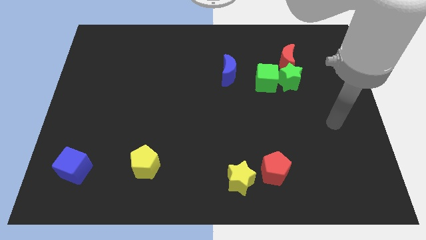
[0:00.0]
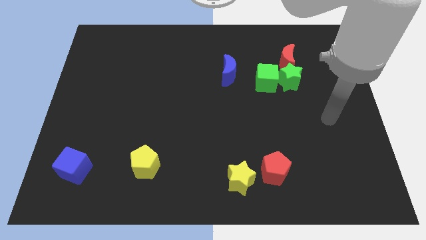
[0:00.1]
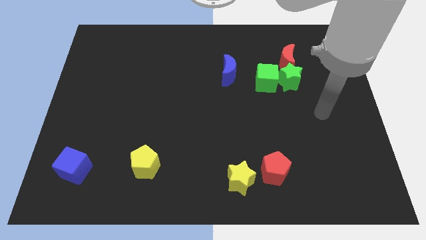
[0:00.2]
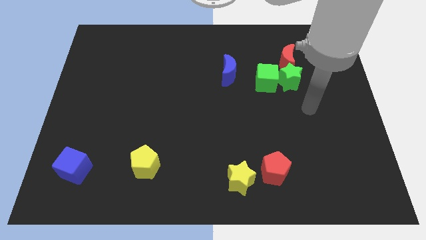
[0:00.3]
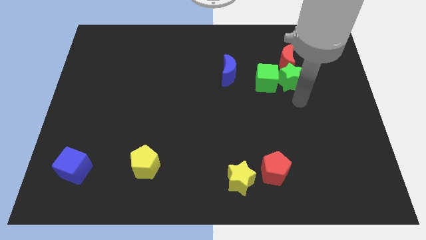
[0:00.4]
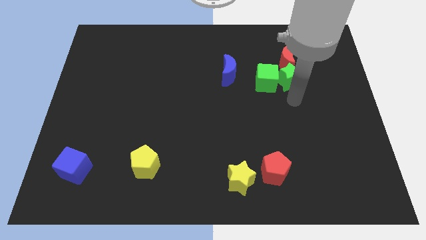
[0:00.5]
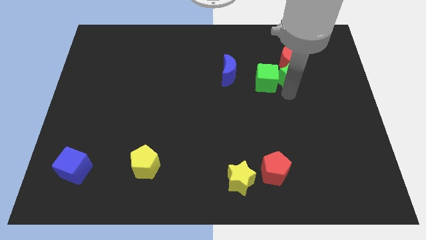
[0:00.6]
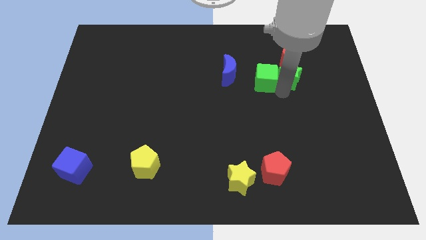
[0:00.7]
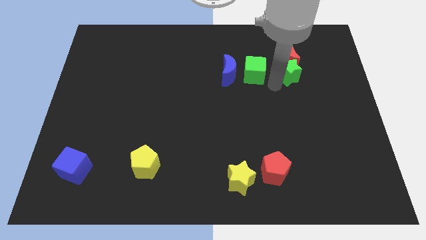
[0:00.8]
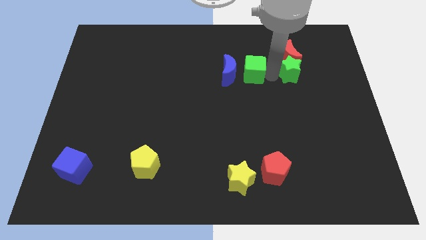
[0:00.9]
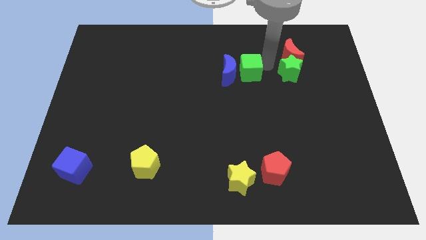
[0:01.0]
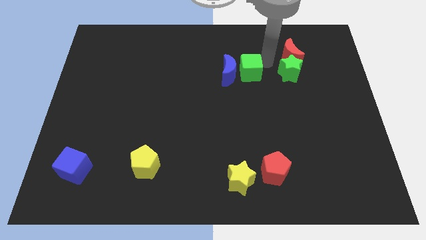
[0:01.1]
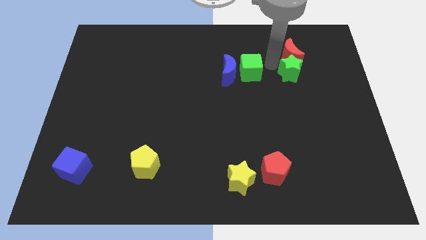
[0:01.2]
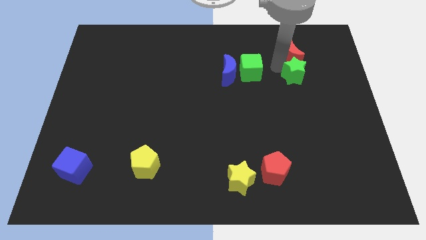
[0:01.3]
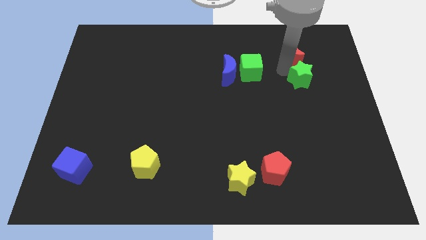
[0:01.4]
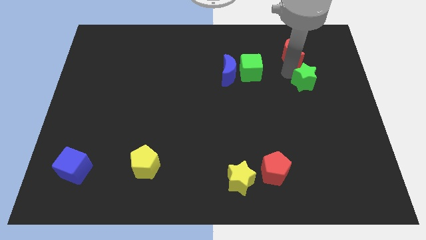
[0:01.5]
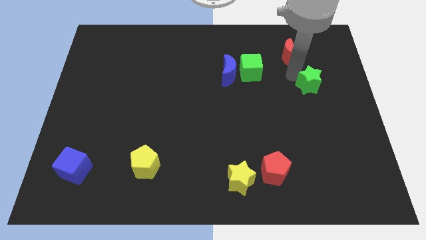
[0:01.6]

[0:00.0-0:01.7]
pull the green star apart from the green cube and red moon

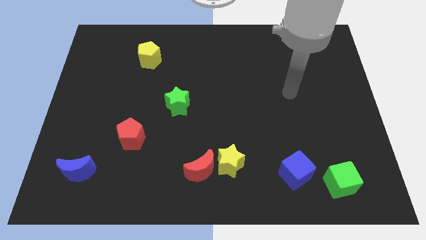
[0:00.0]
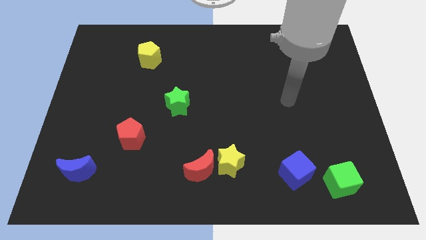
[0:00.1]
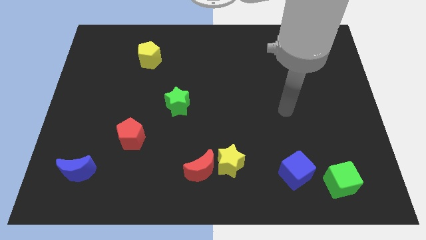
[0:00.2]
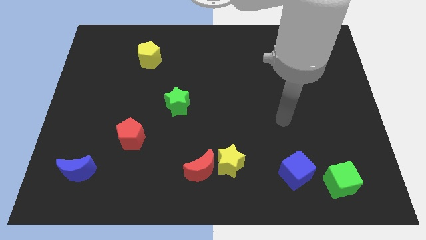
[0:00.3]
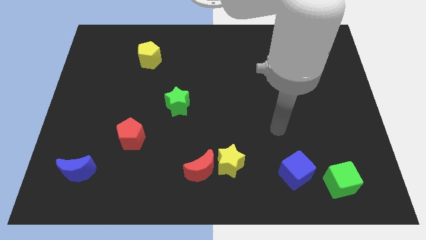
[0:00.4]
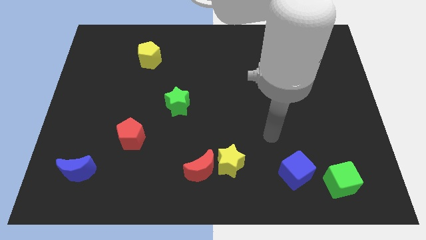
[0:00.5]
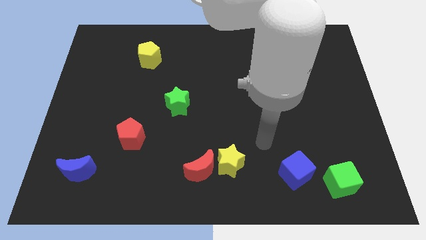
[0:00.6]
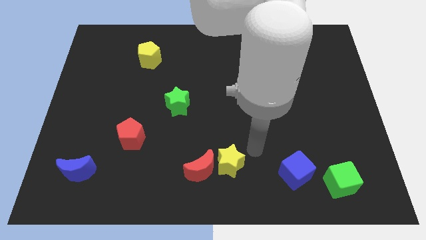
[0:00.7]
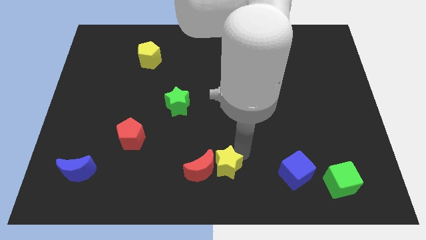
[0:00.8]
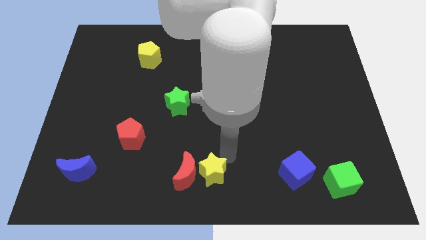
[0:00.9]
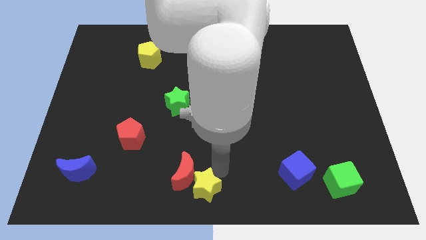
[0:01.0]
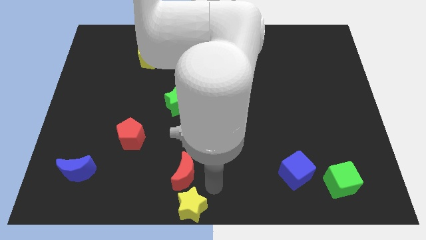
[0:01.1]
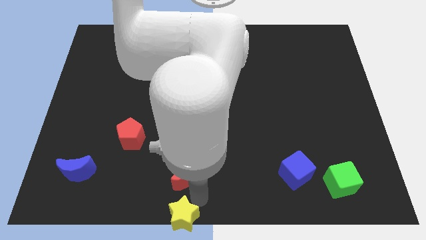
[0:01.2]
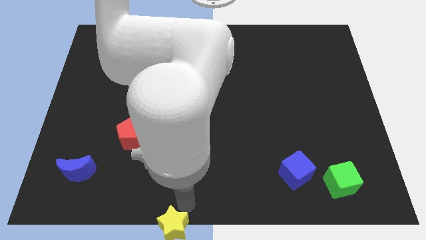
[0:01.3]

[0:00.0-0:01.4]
pull the red moon apart from the yellow star

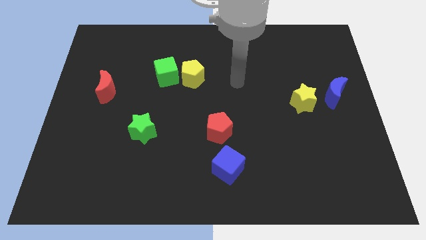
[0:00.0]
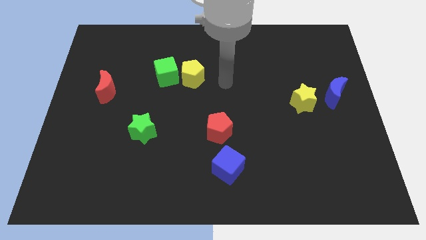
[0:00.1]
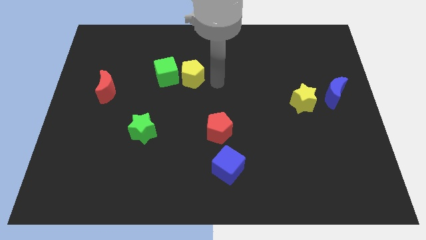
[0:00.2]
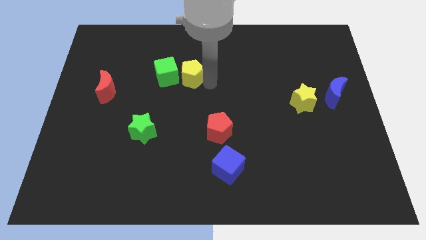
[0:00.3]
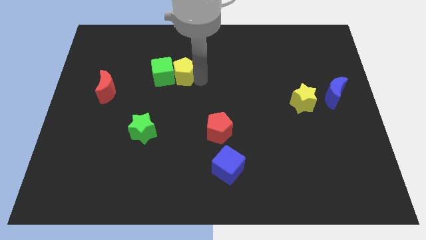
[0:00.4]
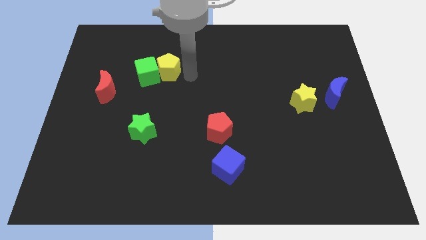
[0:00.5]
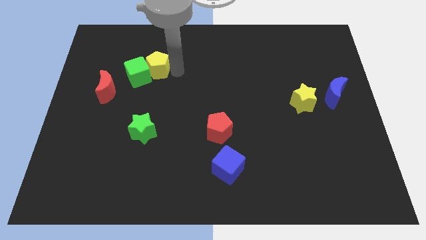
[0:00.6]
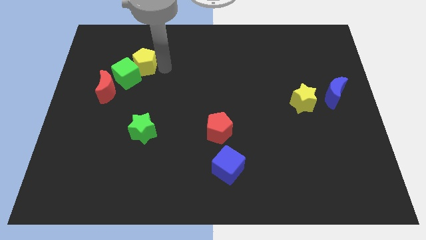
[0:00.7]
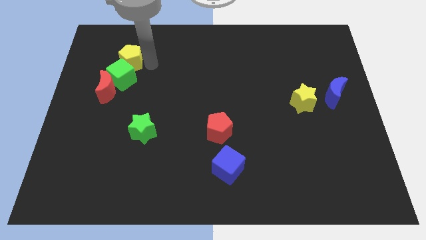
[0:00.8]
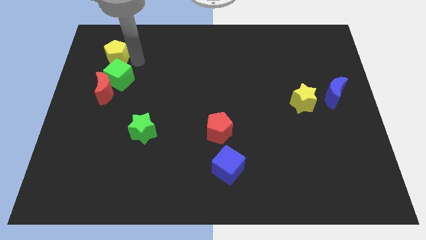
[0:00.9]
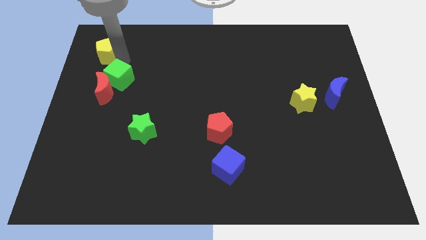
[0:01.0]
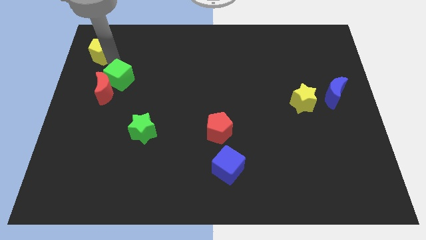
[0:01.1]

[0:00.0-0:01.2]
move the green cube away from the yellow pentagon

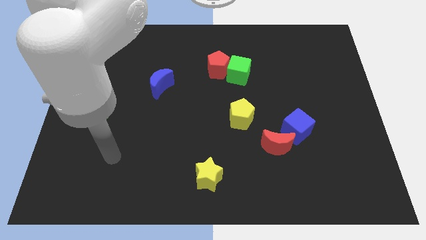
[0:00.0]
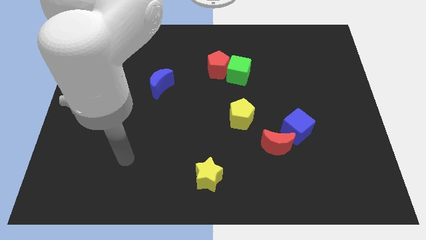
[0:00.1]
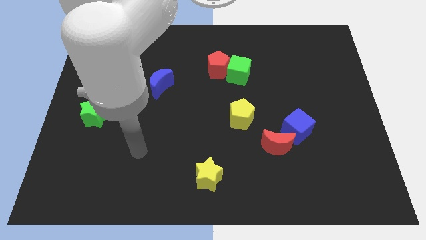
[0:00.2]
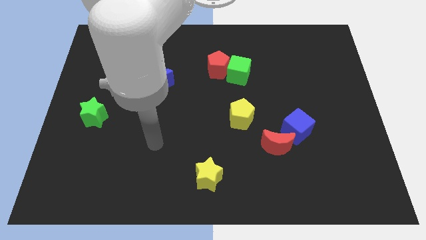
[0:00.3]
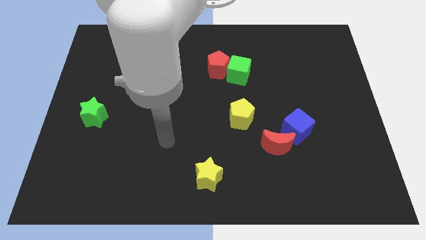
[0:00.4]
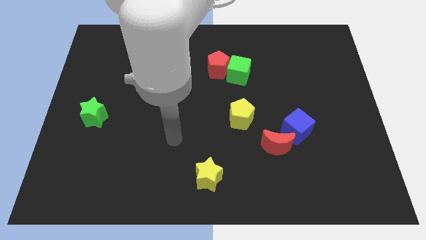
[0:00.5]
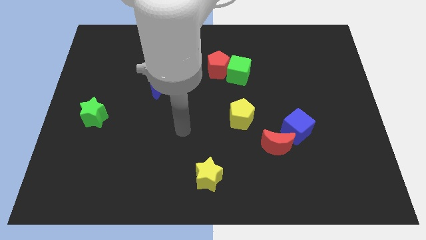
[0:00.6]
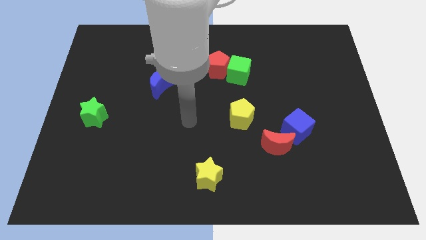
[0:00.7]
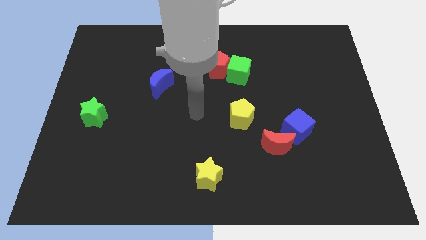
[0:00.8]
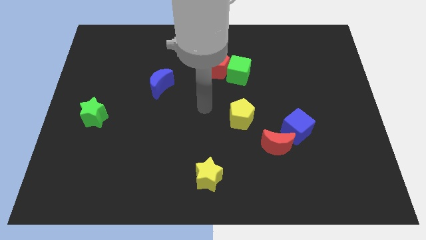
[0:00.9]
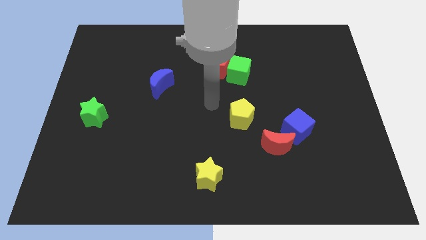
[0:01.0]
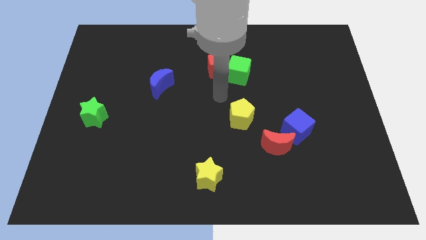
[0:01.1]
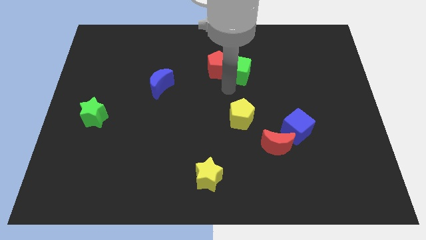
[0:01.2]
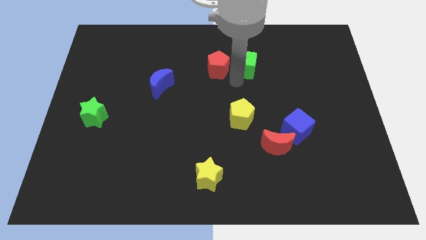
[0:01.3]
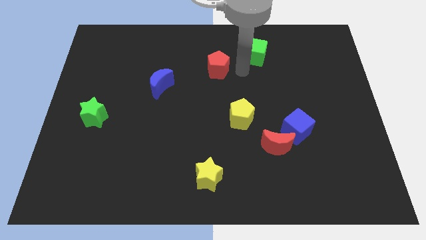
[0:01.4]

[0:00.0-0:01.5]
move the red pentagon away from the green cube

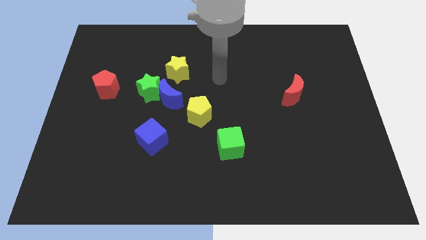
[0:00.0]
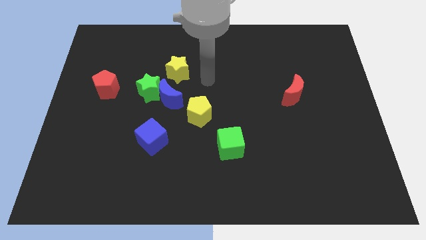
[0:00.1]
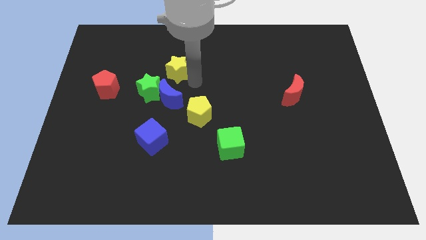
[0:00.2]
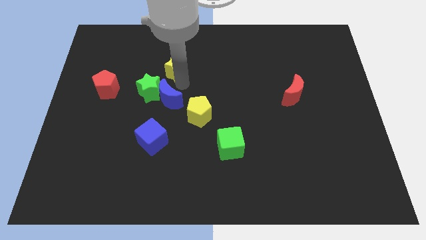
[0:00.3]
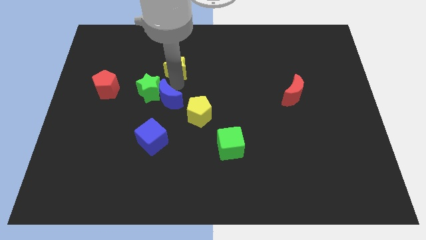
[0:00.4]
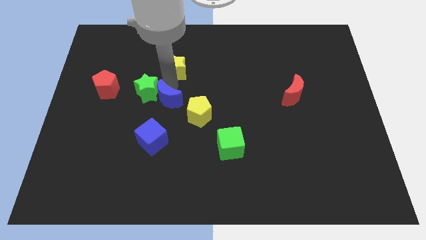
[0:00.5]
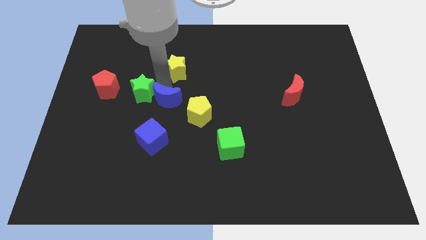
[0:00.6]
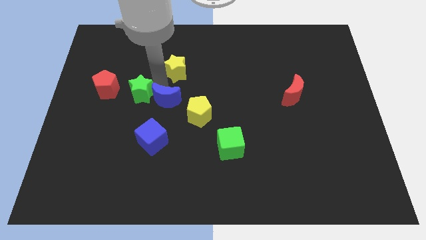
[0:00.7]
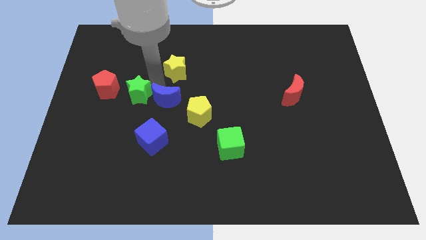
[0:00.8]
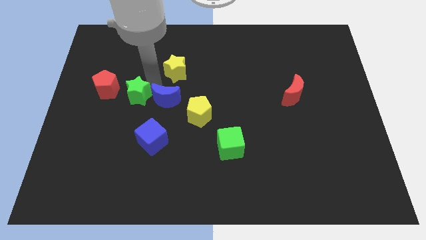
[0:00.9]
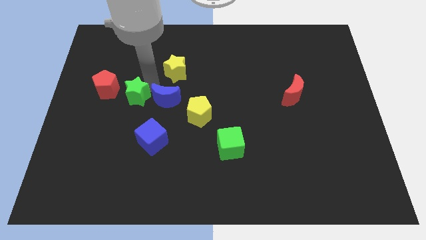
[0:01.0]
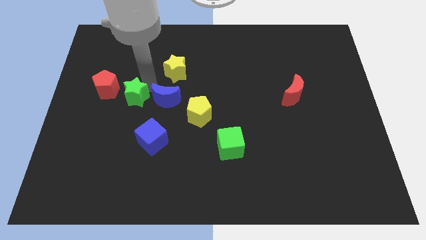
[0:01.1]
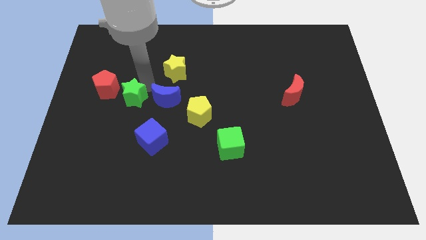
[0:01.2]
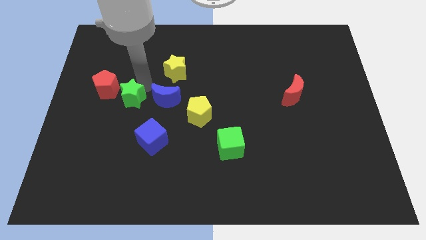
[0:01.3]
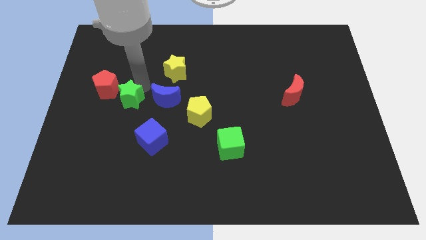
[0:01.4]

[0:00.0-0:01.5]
pull the green star apart from the blue moon and yellow star

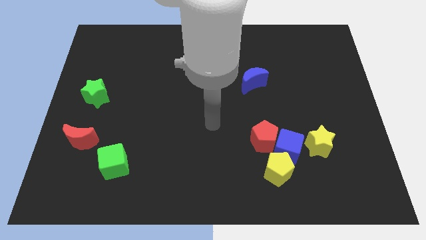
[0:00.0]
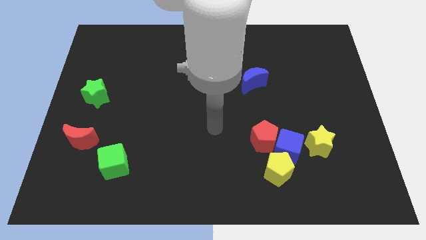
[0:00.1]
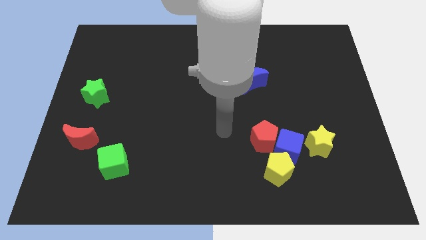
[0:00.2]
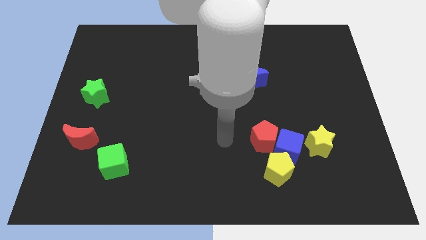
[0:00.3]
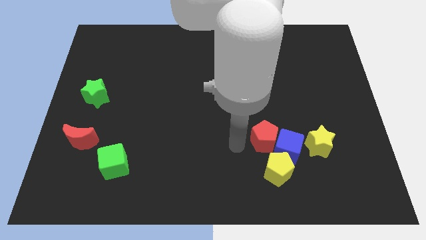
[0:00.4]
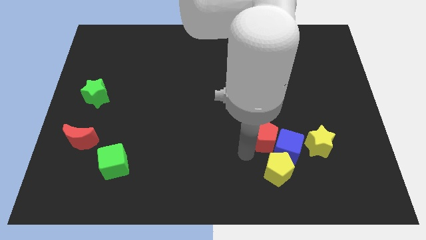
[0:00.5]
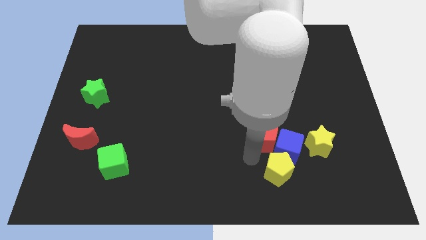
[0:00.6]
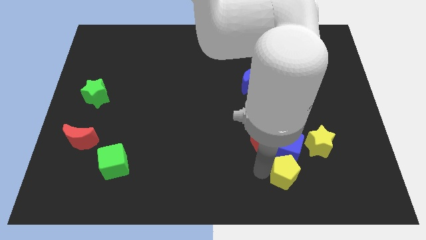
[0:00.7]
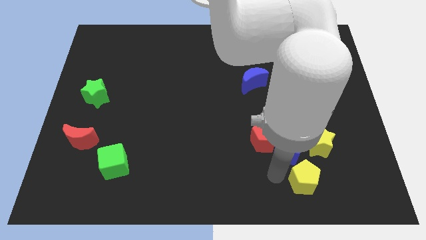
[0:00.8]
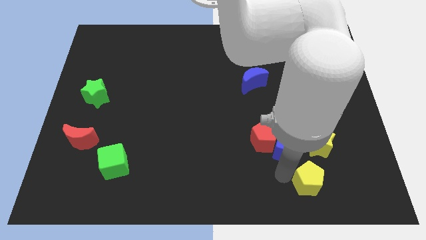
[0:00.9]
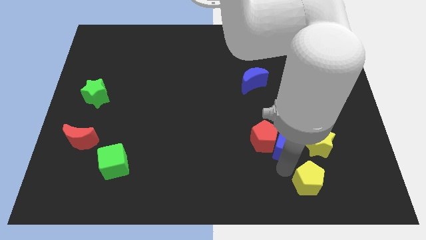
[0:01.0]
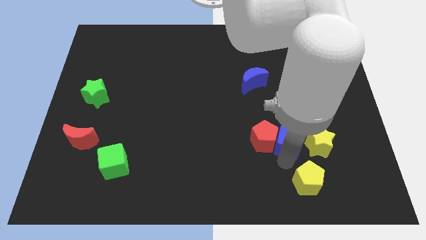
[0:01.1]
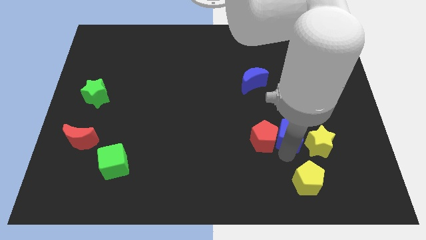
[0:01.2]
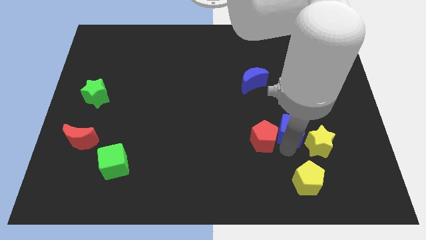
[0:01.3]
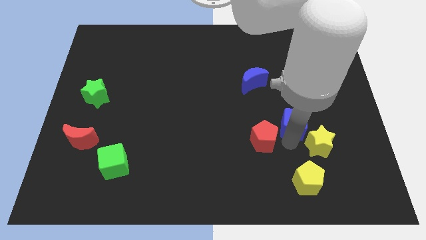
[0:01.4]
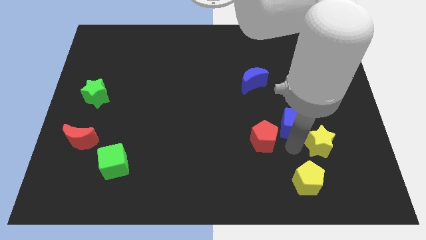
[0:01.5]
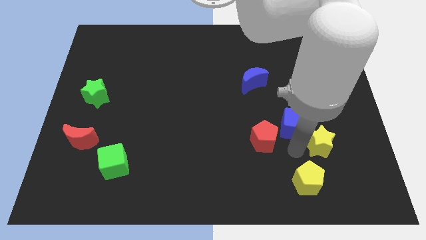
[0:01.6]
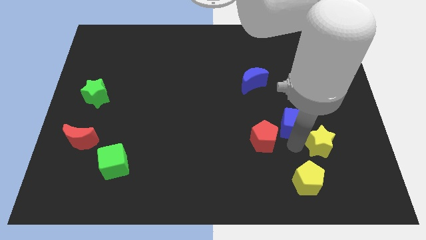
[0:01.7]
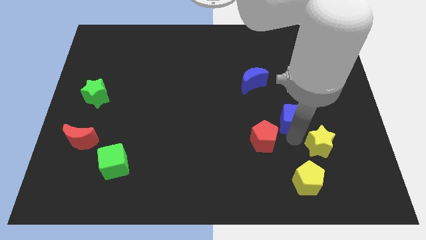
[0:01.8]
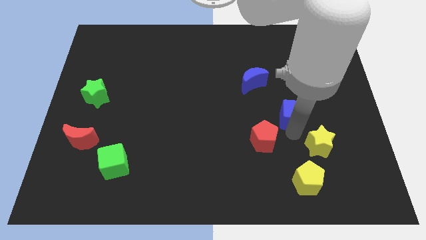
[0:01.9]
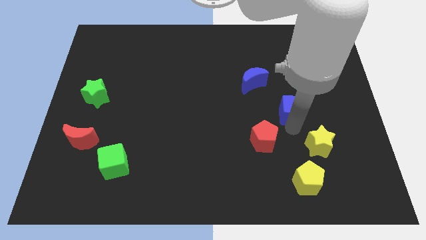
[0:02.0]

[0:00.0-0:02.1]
pull the blue cube apart from the red pentagon, yellow pentagon, and yellow star
